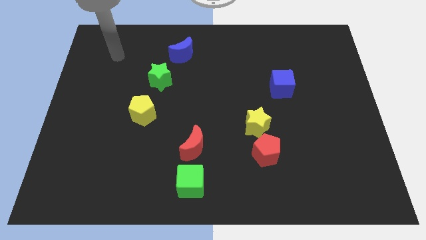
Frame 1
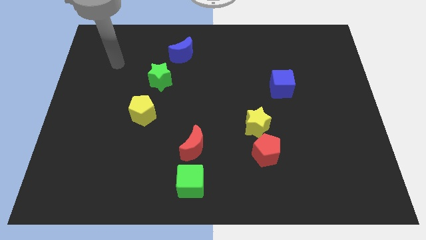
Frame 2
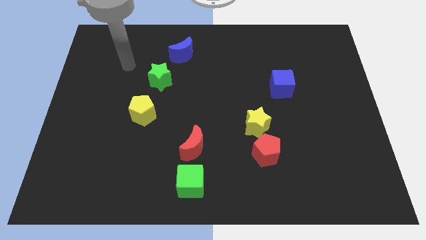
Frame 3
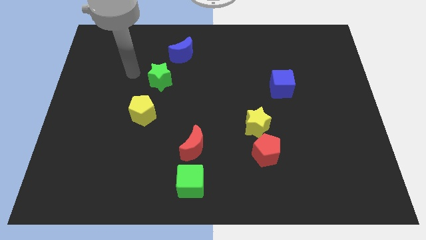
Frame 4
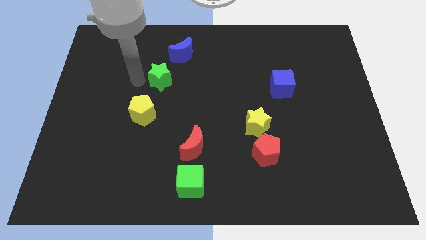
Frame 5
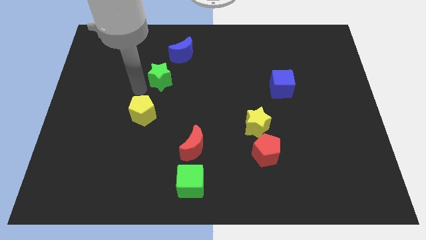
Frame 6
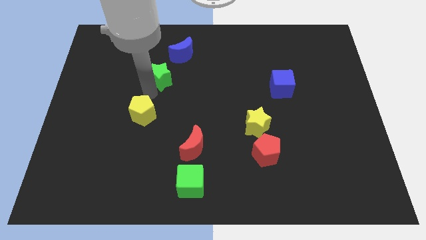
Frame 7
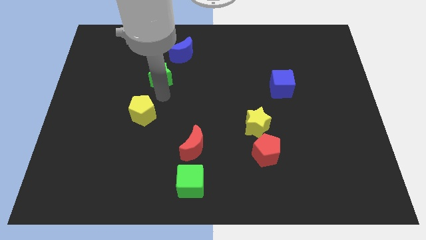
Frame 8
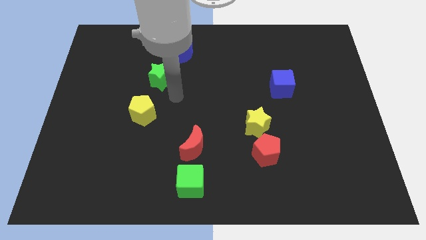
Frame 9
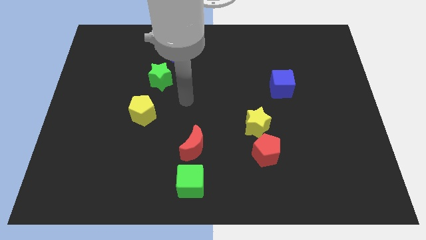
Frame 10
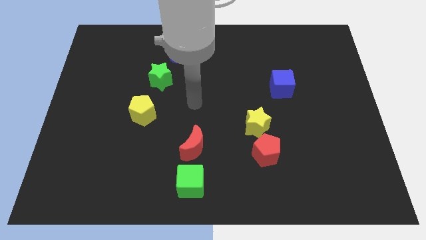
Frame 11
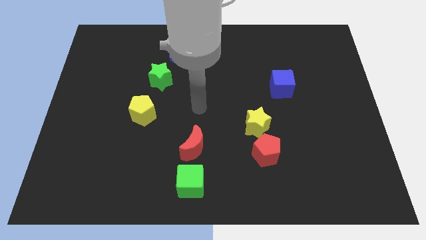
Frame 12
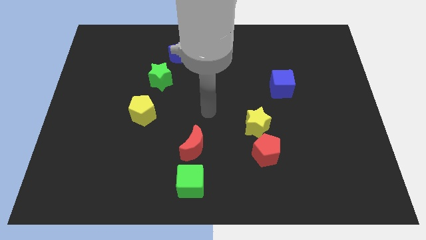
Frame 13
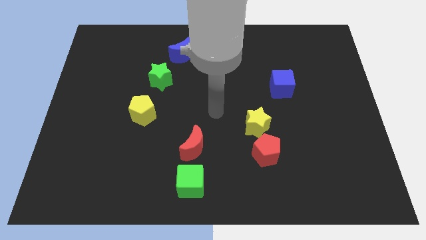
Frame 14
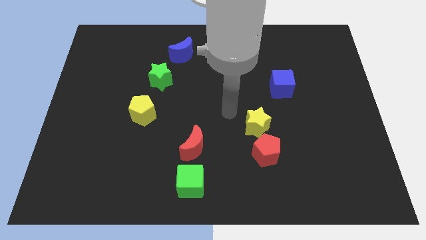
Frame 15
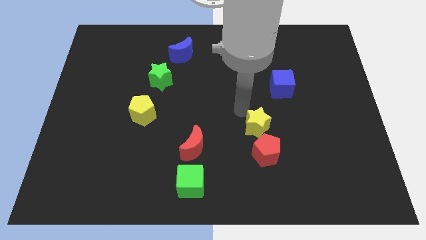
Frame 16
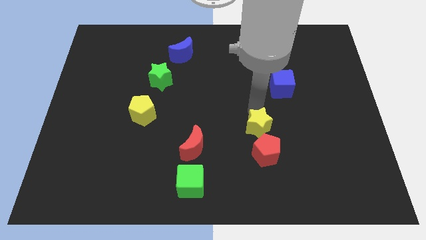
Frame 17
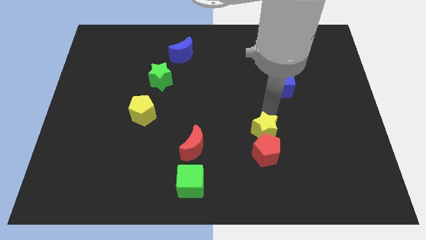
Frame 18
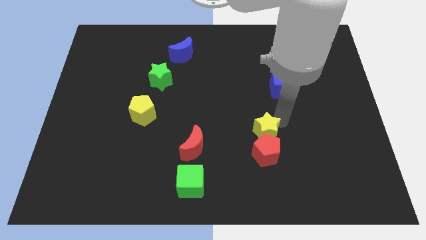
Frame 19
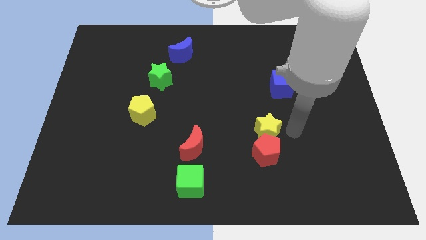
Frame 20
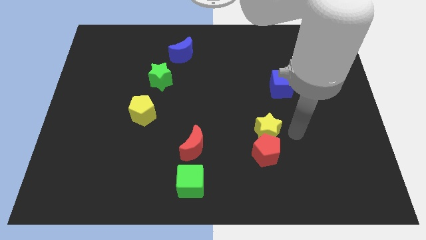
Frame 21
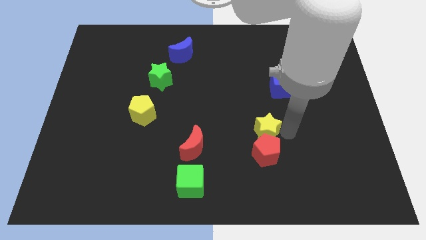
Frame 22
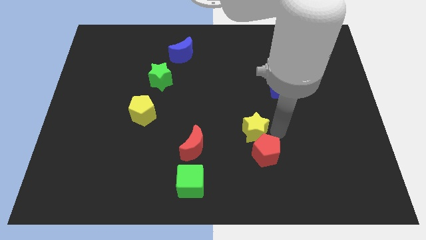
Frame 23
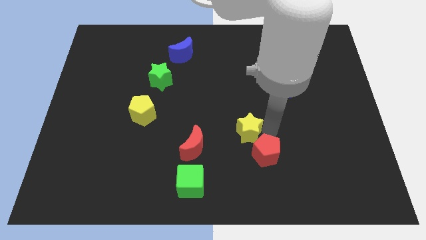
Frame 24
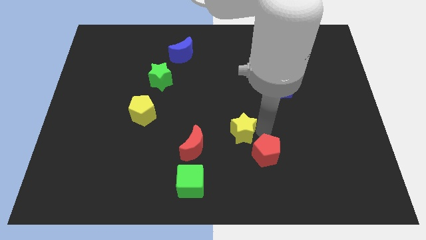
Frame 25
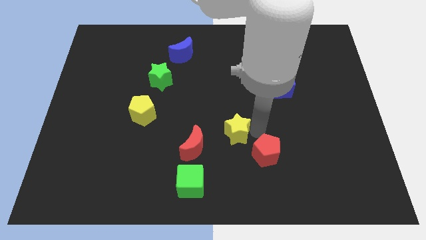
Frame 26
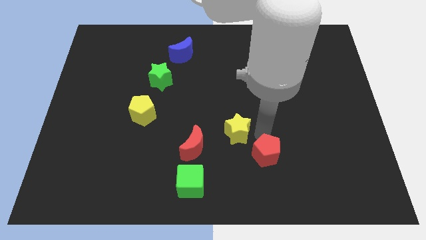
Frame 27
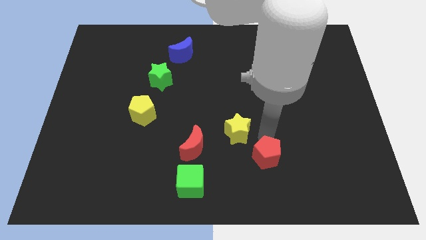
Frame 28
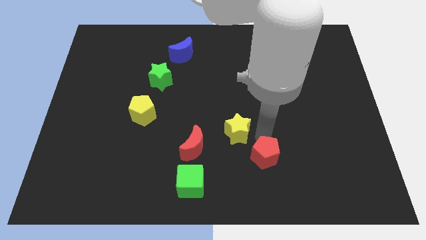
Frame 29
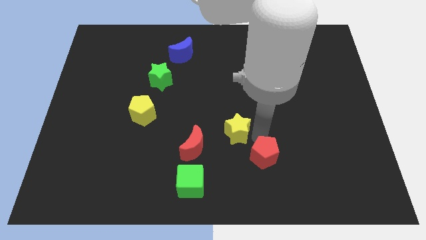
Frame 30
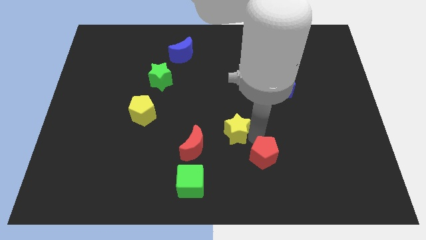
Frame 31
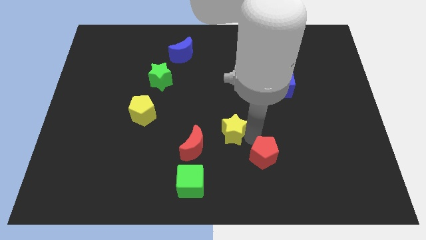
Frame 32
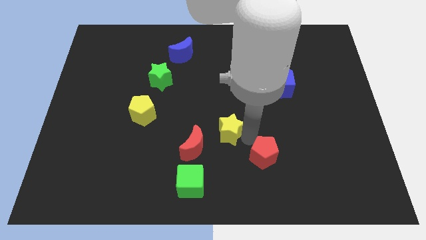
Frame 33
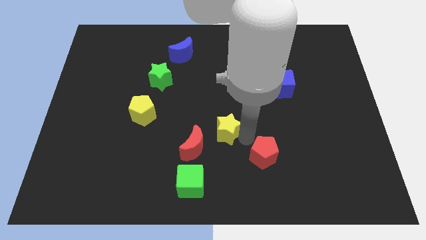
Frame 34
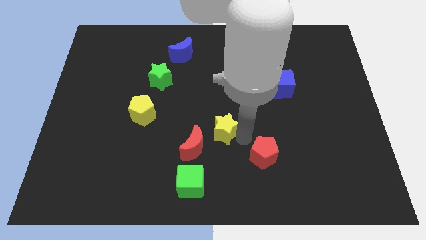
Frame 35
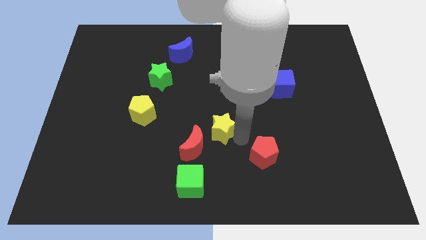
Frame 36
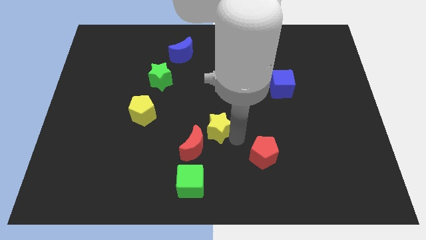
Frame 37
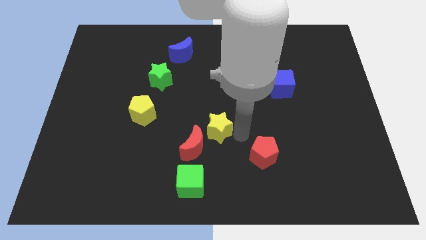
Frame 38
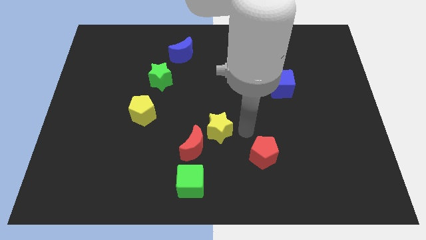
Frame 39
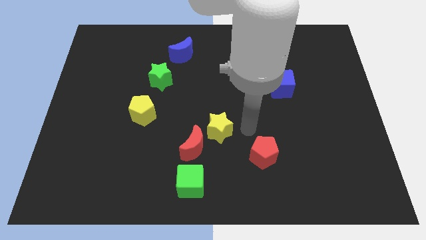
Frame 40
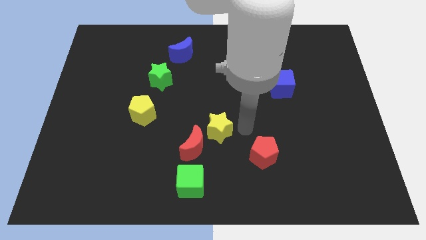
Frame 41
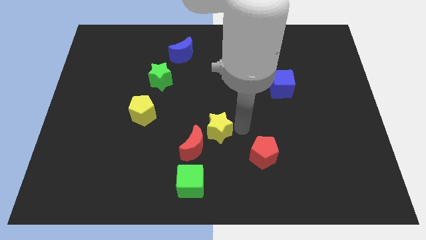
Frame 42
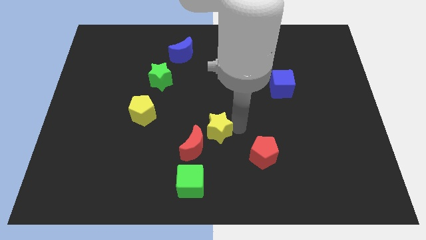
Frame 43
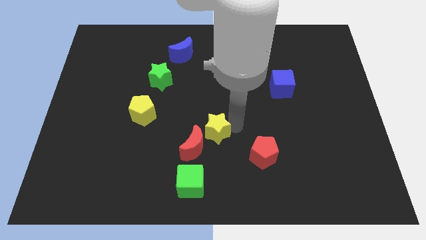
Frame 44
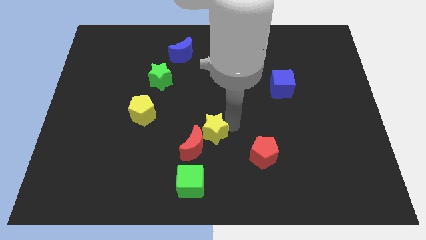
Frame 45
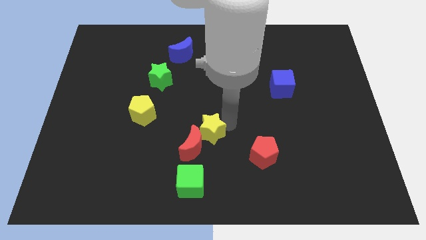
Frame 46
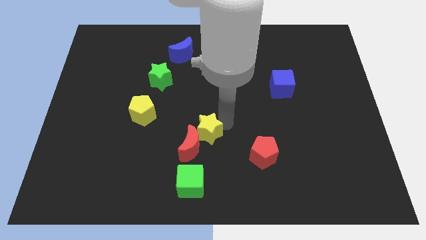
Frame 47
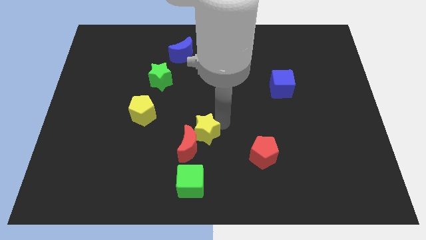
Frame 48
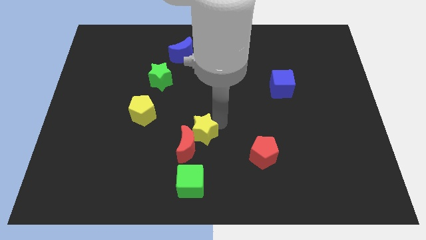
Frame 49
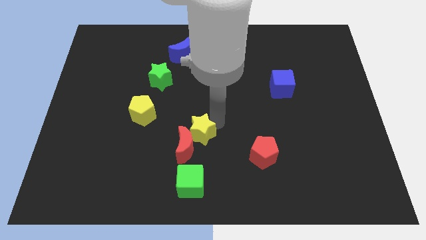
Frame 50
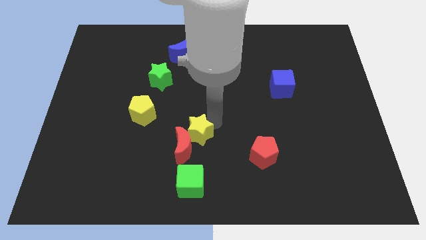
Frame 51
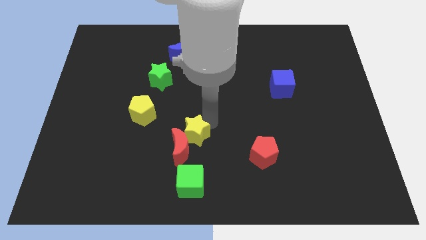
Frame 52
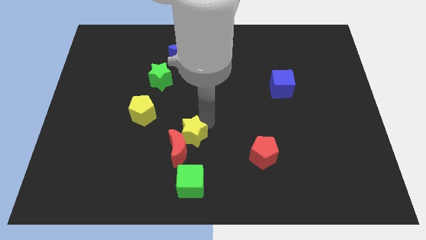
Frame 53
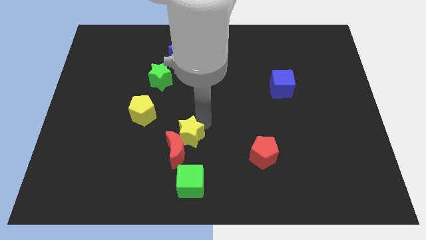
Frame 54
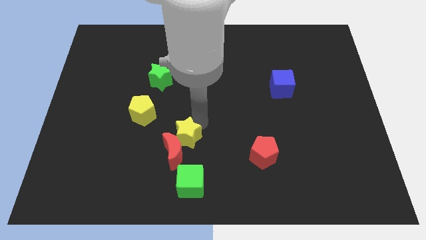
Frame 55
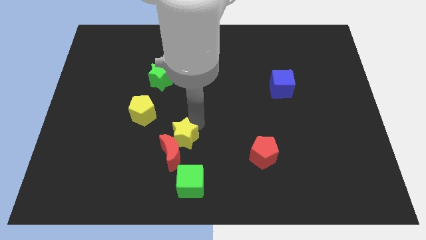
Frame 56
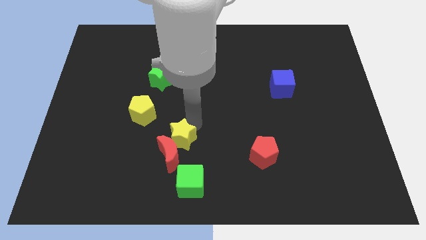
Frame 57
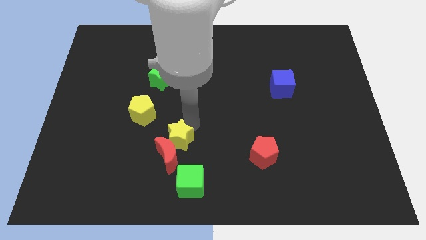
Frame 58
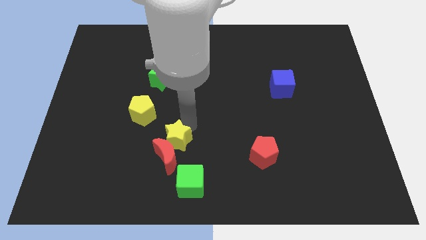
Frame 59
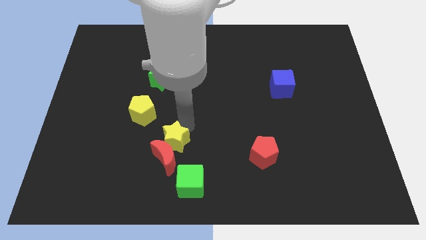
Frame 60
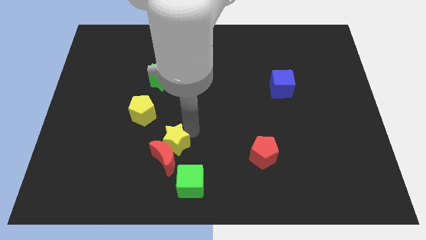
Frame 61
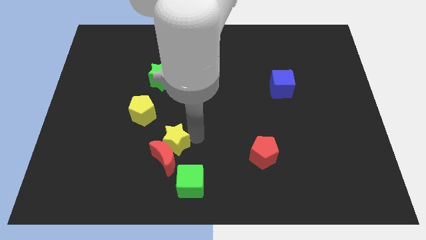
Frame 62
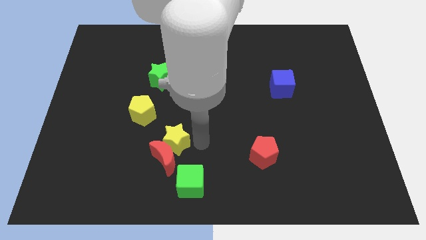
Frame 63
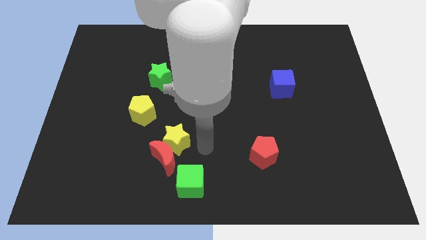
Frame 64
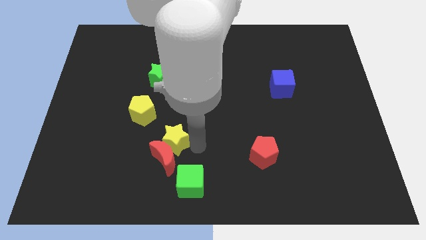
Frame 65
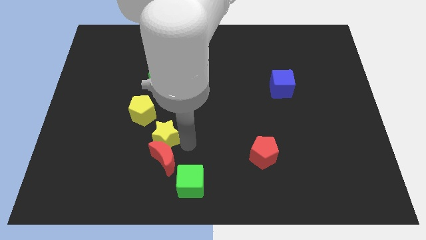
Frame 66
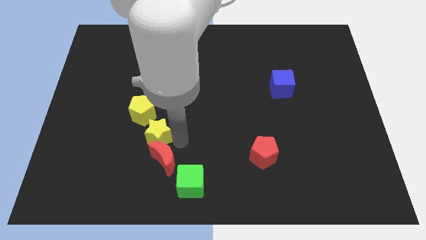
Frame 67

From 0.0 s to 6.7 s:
push the yellow star to the left

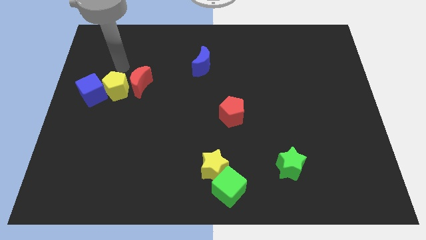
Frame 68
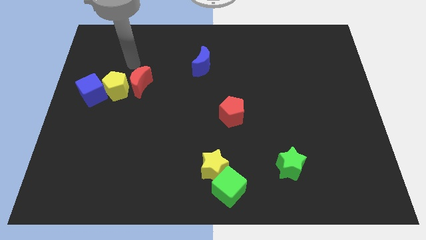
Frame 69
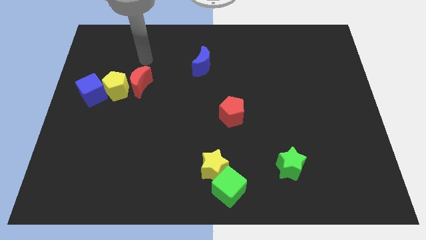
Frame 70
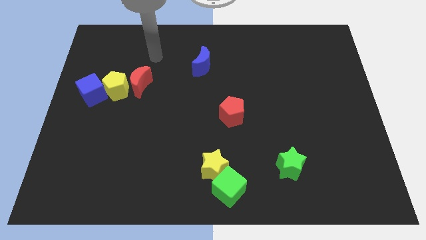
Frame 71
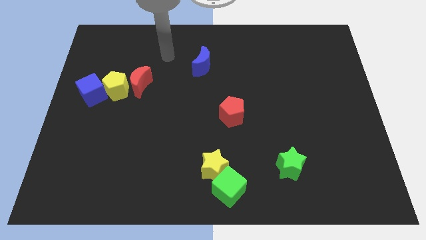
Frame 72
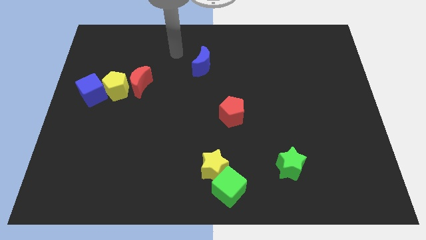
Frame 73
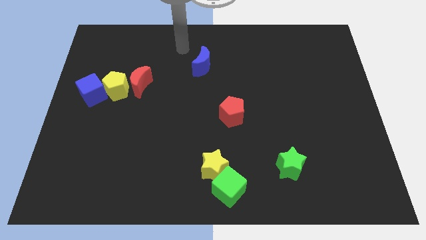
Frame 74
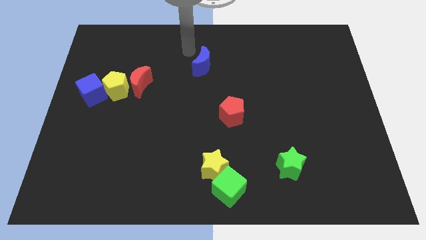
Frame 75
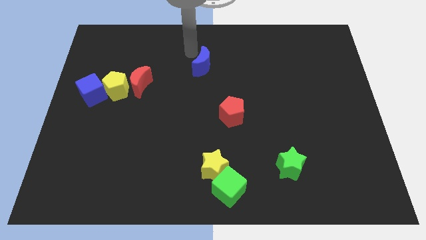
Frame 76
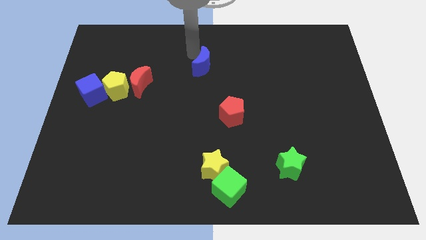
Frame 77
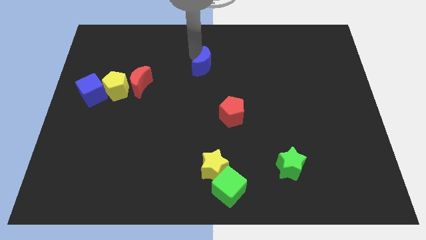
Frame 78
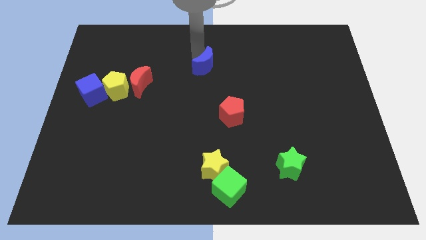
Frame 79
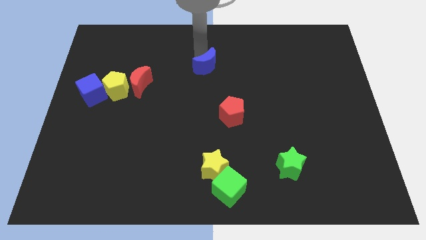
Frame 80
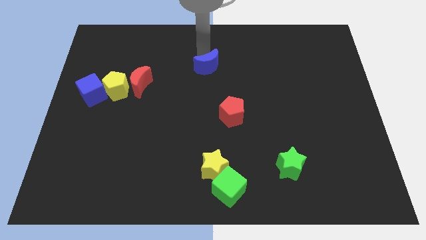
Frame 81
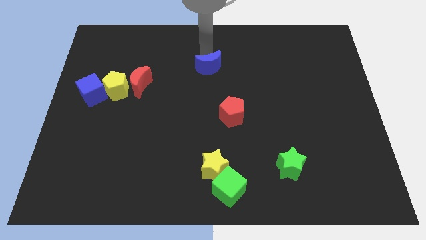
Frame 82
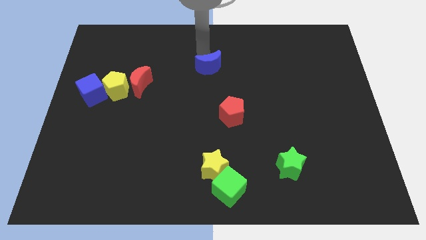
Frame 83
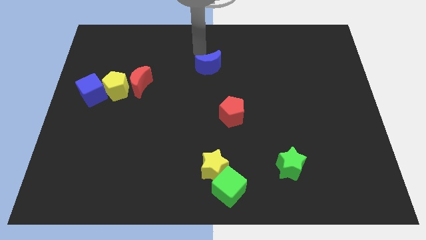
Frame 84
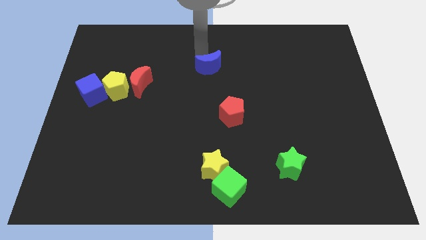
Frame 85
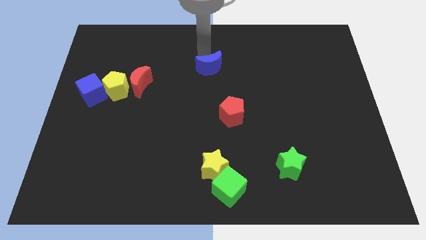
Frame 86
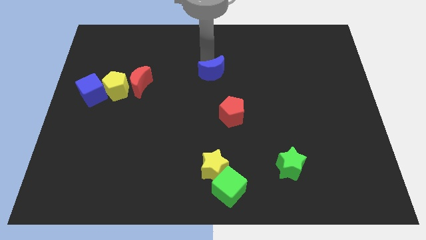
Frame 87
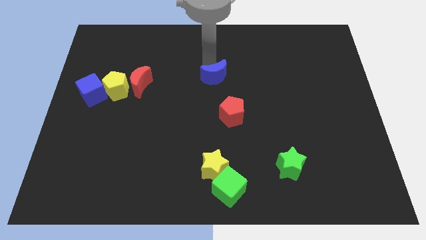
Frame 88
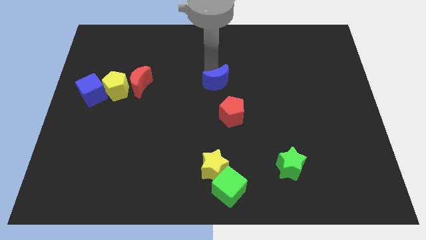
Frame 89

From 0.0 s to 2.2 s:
push the blue moon down and to the right diagonally a little
